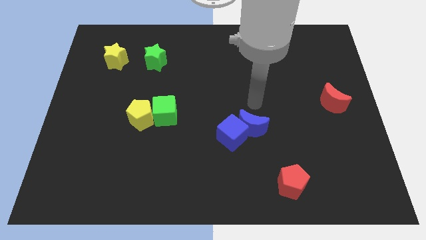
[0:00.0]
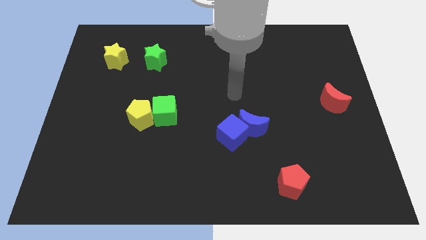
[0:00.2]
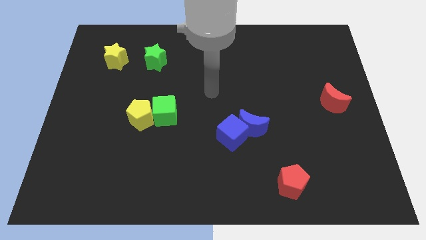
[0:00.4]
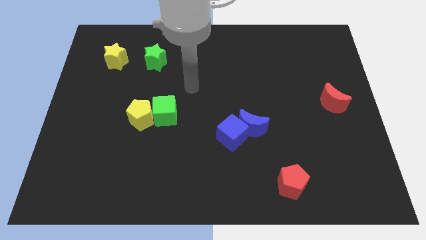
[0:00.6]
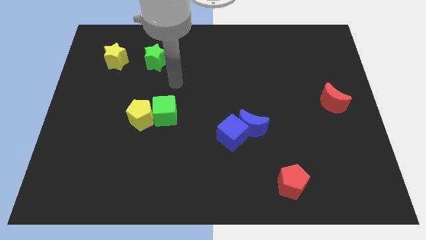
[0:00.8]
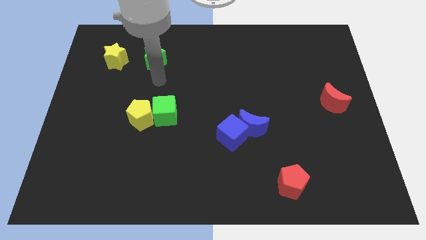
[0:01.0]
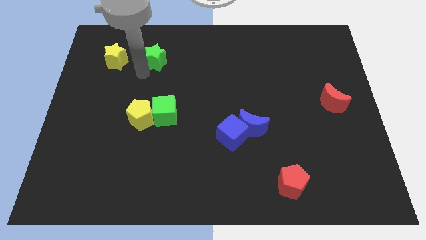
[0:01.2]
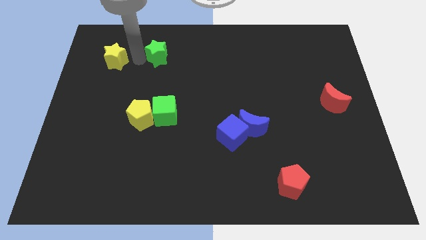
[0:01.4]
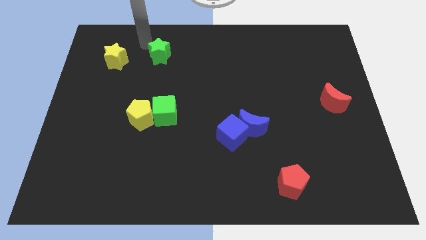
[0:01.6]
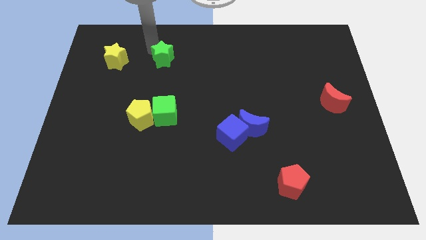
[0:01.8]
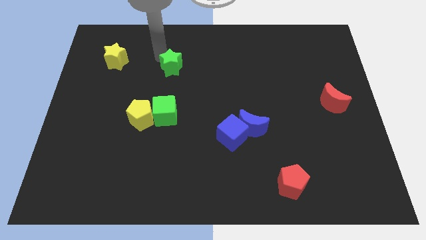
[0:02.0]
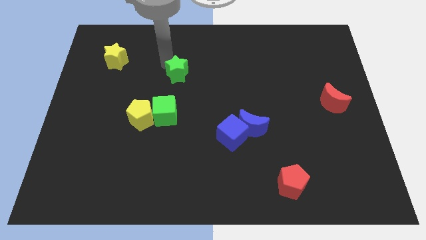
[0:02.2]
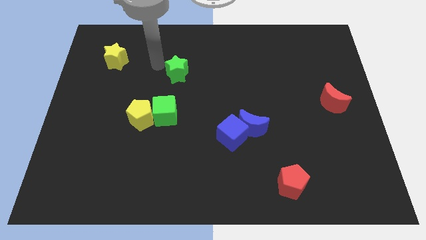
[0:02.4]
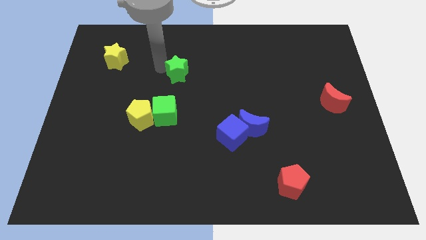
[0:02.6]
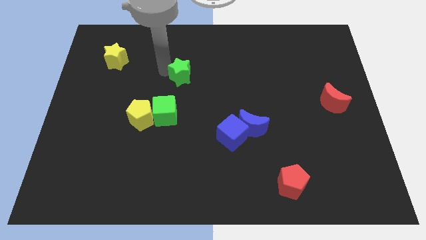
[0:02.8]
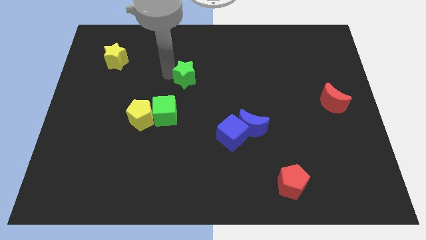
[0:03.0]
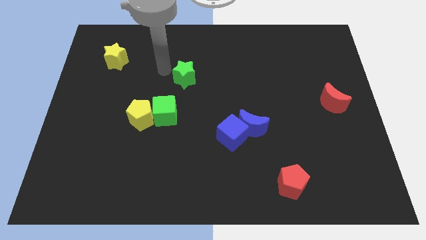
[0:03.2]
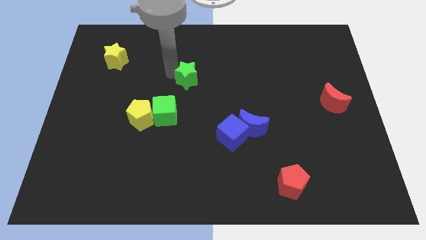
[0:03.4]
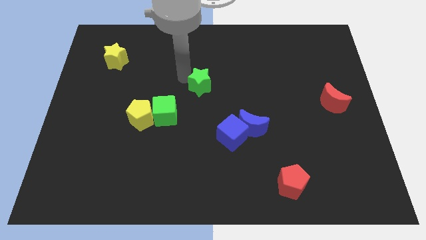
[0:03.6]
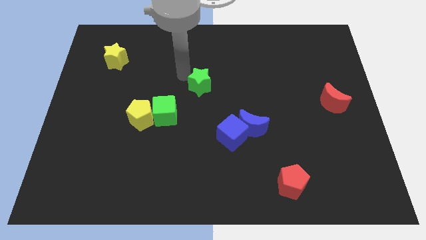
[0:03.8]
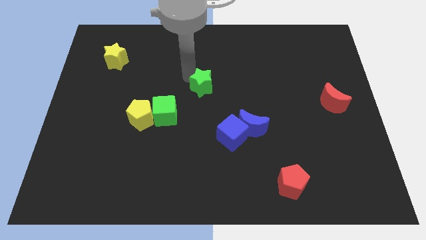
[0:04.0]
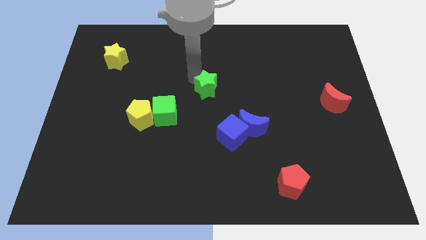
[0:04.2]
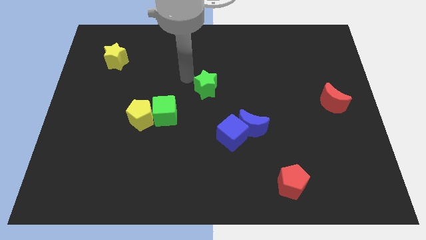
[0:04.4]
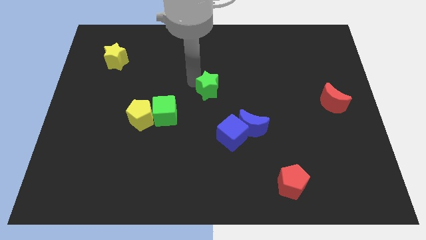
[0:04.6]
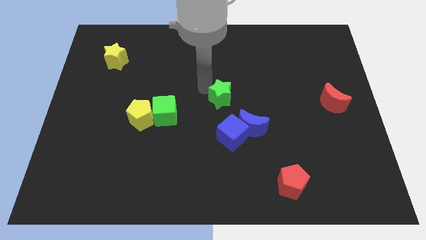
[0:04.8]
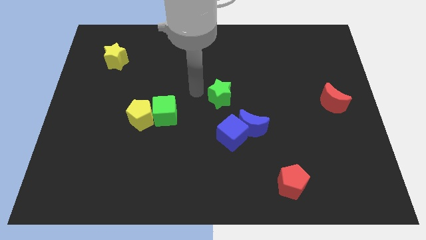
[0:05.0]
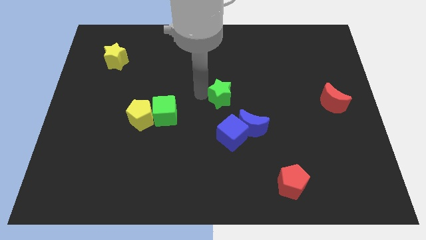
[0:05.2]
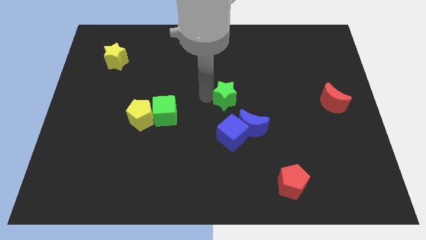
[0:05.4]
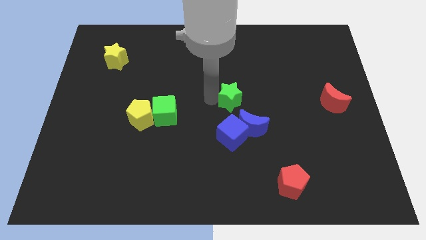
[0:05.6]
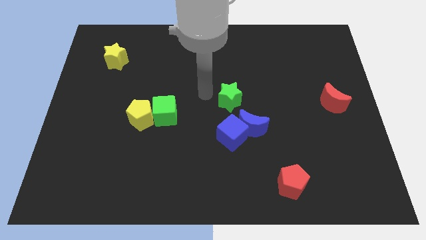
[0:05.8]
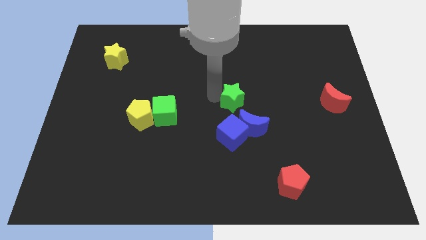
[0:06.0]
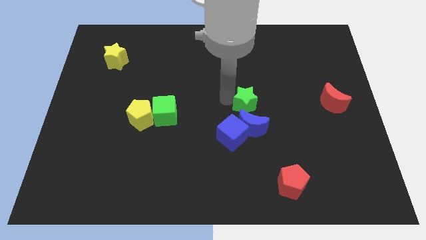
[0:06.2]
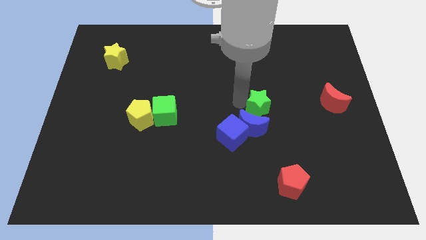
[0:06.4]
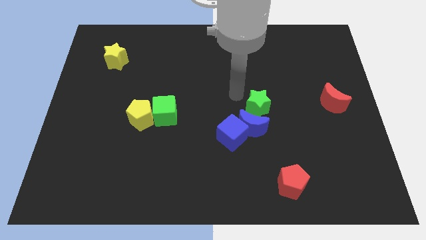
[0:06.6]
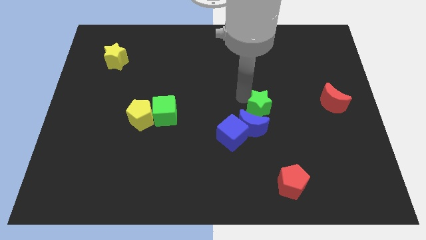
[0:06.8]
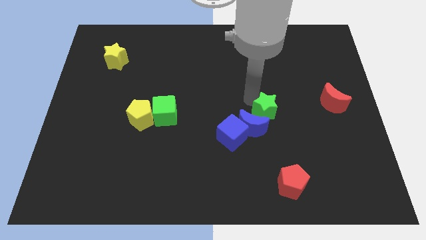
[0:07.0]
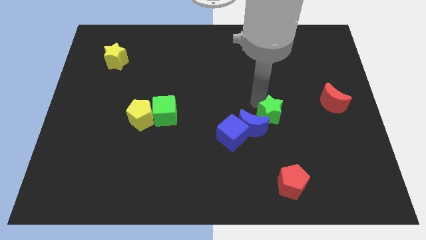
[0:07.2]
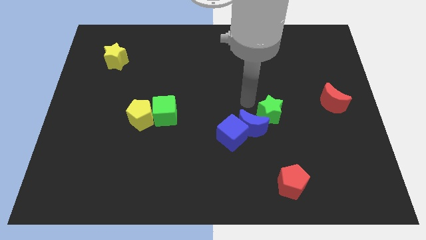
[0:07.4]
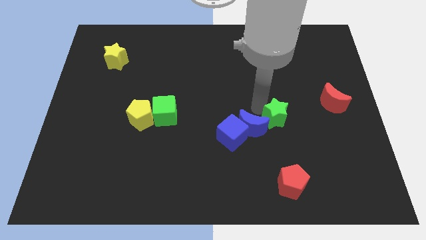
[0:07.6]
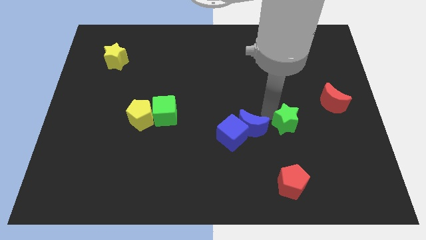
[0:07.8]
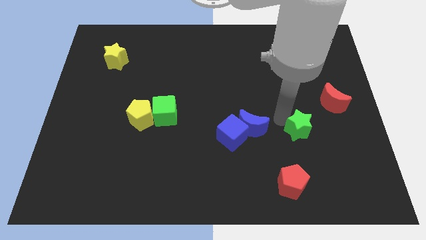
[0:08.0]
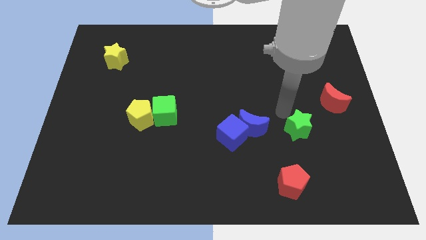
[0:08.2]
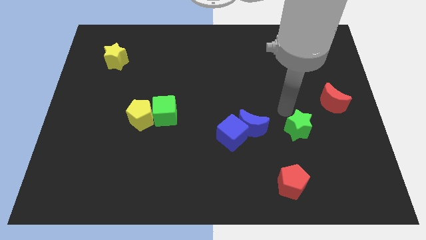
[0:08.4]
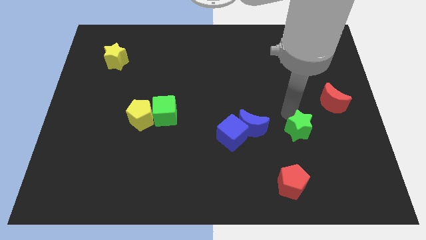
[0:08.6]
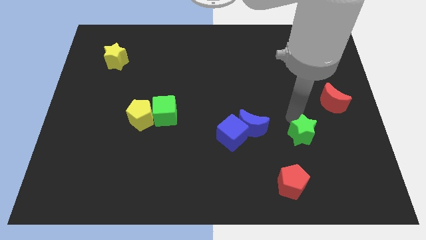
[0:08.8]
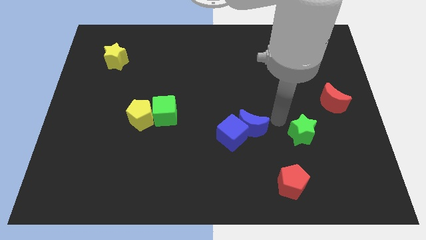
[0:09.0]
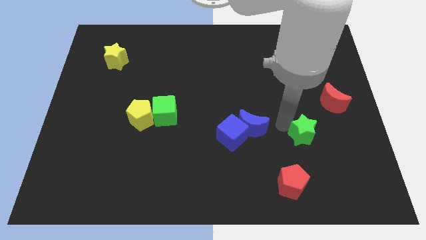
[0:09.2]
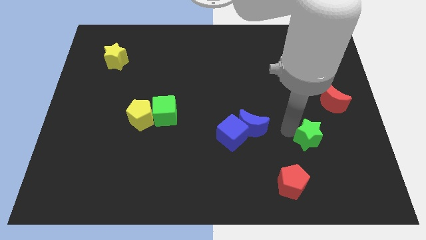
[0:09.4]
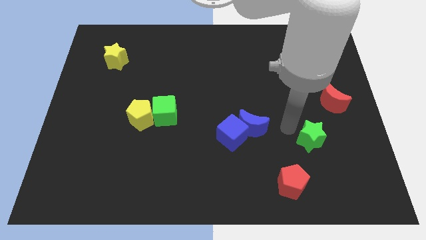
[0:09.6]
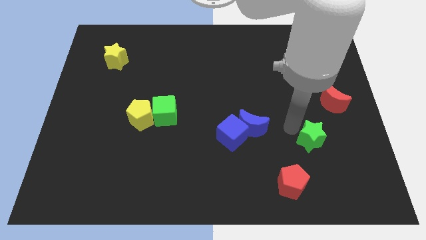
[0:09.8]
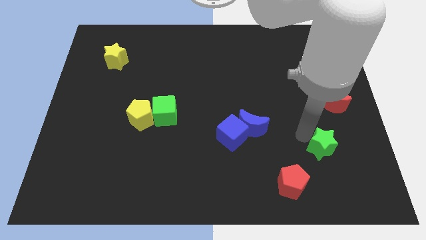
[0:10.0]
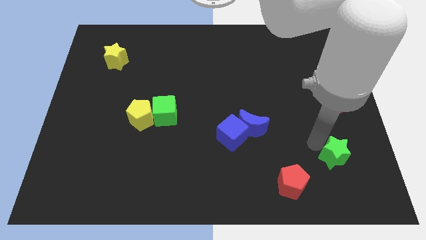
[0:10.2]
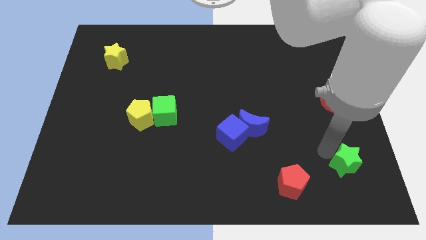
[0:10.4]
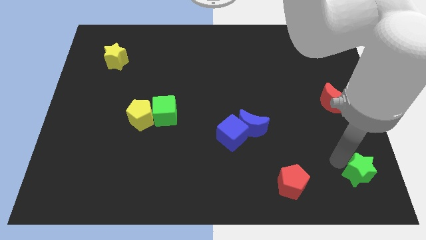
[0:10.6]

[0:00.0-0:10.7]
move the green star to the lower right corner

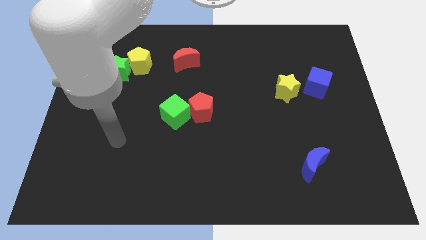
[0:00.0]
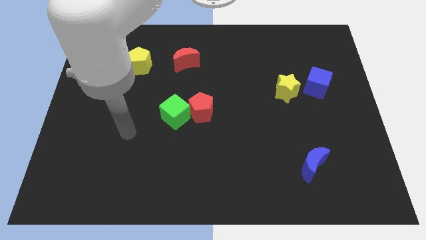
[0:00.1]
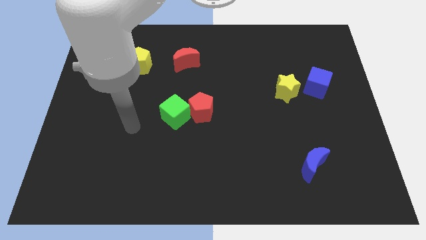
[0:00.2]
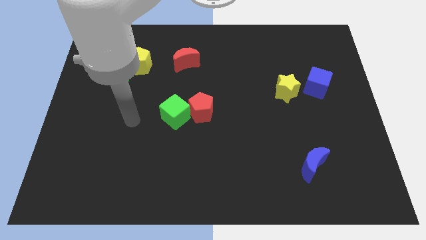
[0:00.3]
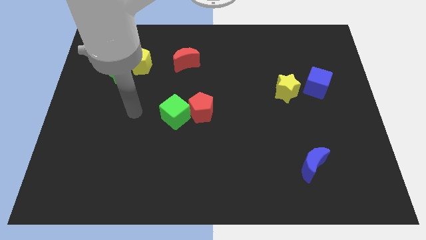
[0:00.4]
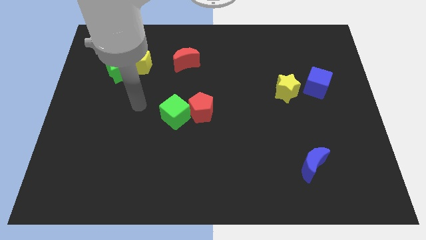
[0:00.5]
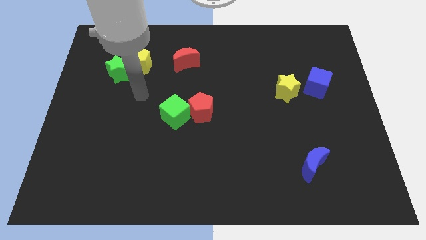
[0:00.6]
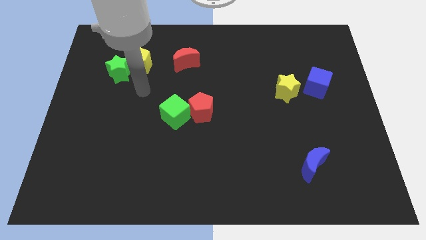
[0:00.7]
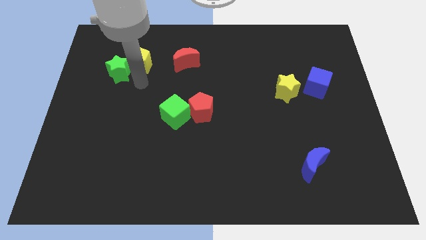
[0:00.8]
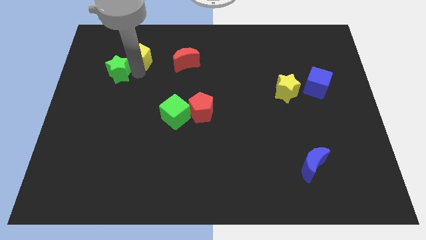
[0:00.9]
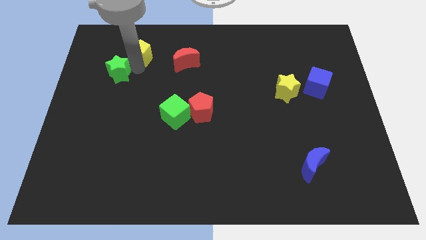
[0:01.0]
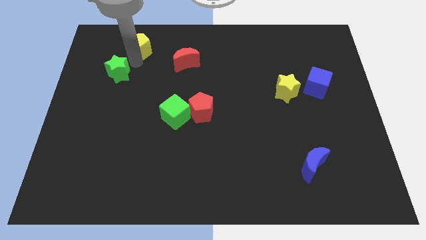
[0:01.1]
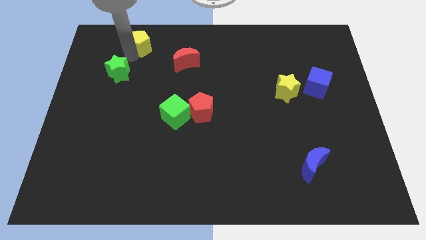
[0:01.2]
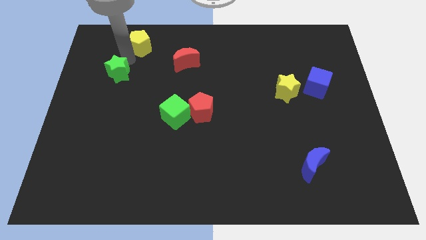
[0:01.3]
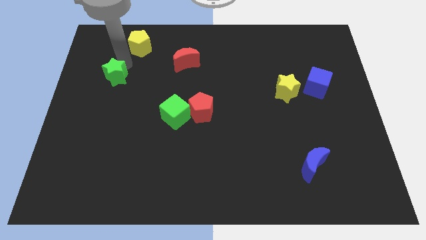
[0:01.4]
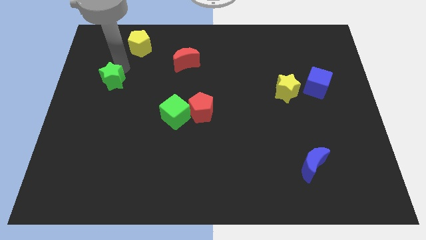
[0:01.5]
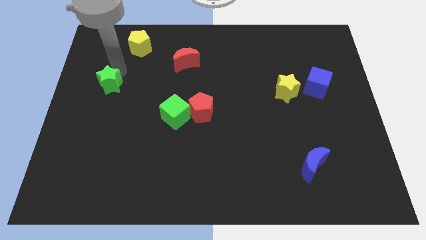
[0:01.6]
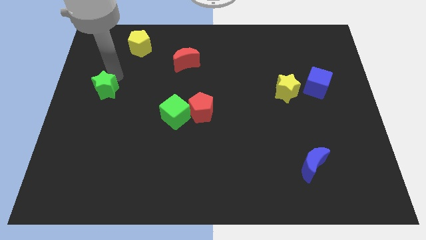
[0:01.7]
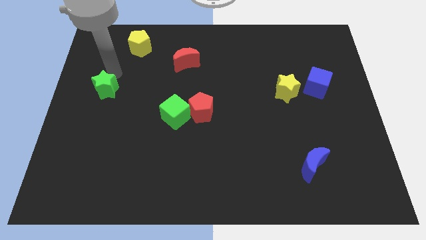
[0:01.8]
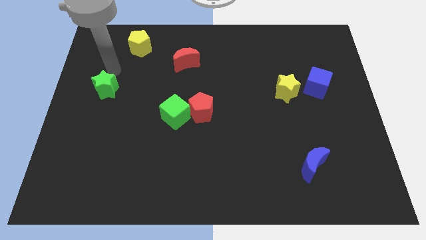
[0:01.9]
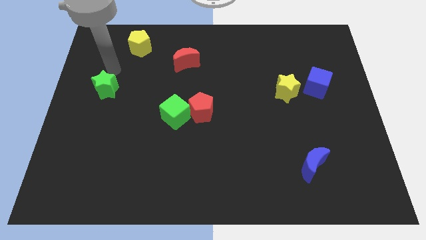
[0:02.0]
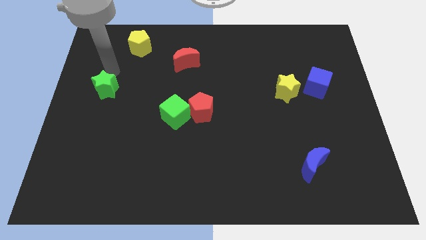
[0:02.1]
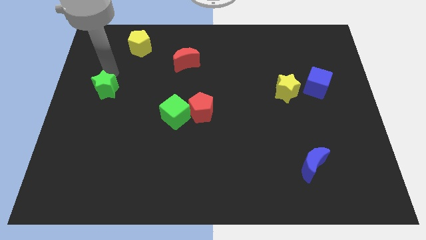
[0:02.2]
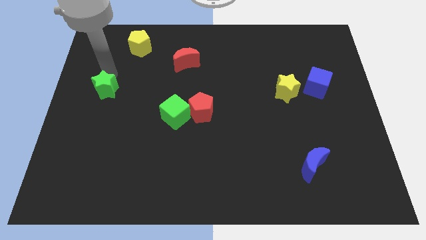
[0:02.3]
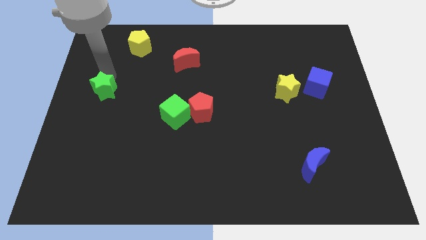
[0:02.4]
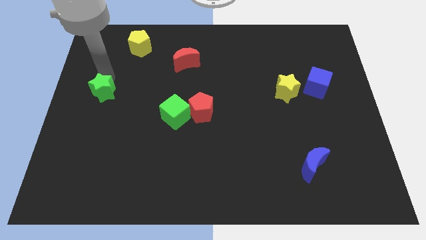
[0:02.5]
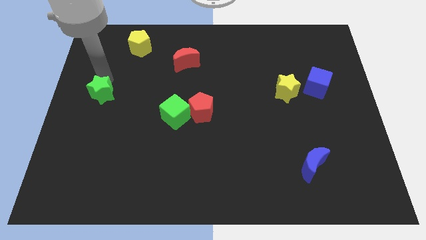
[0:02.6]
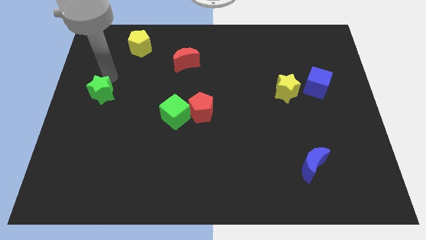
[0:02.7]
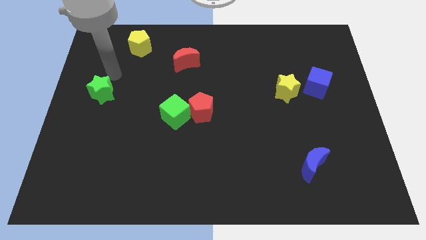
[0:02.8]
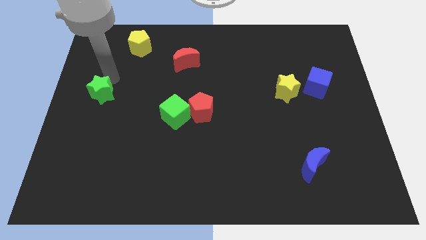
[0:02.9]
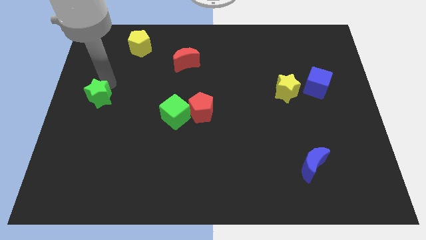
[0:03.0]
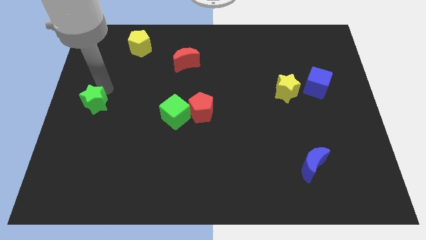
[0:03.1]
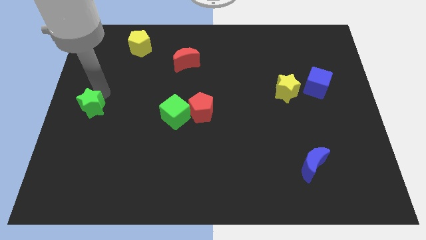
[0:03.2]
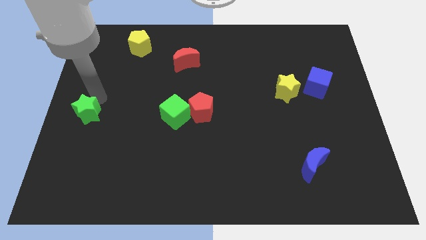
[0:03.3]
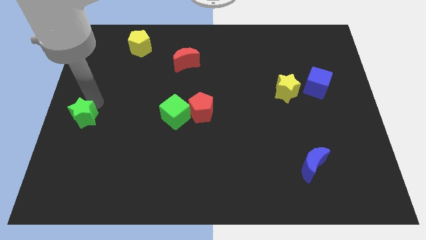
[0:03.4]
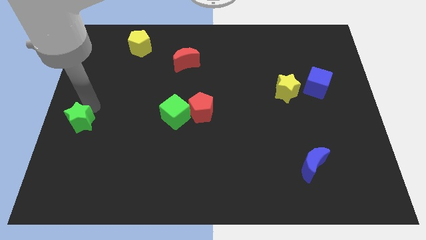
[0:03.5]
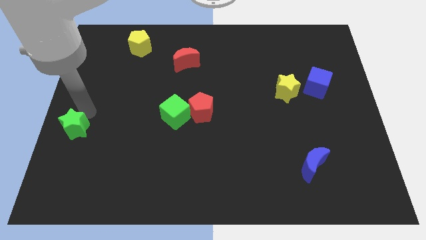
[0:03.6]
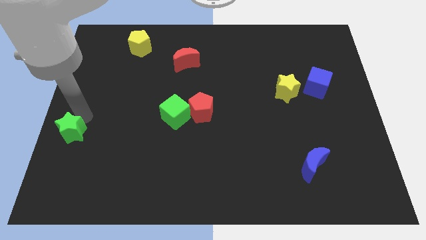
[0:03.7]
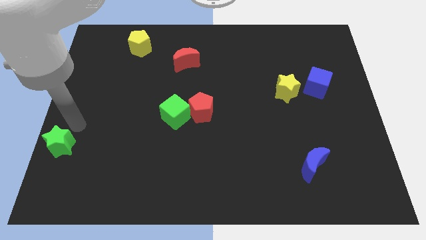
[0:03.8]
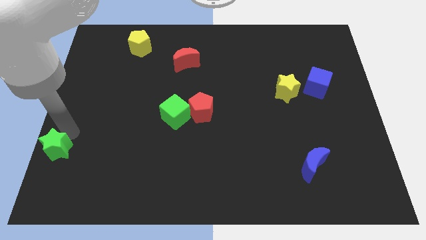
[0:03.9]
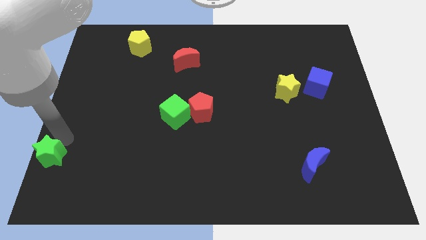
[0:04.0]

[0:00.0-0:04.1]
put the green star to the bottom left of the board
